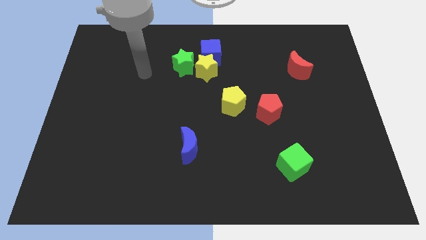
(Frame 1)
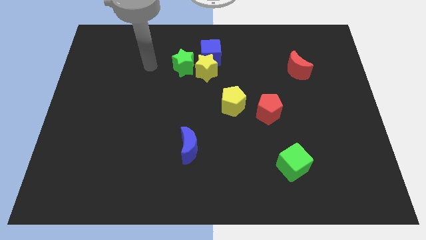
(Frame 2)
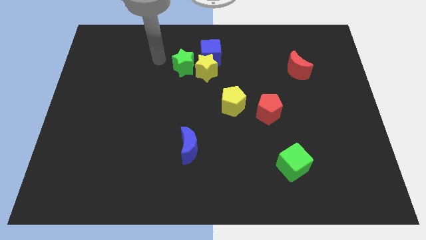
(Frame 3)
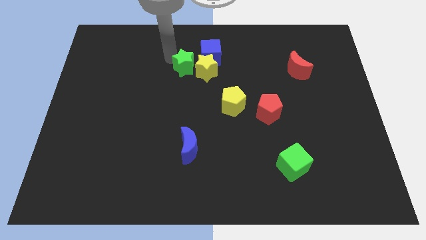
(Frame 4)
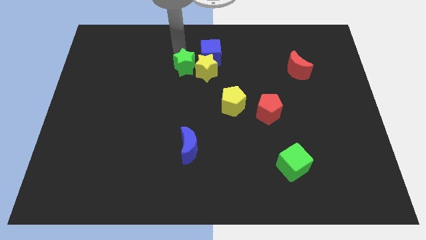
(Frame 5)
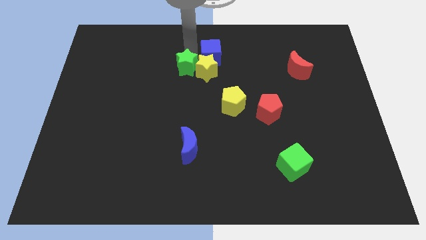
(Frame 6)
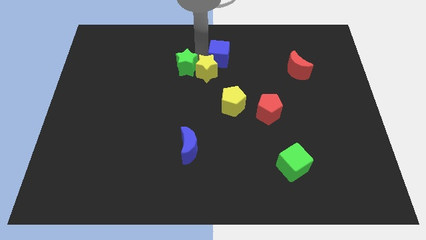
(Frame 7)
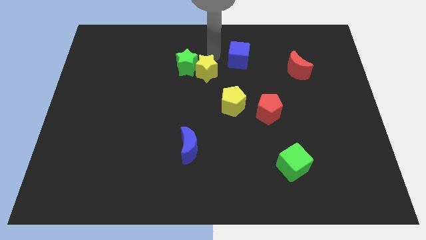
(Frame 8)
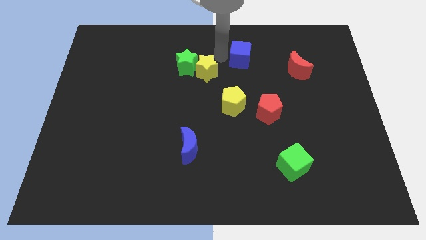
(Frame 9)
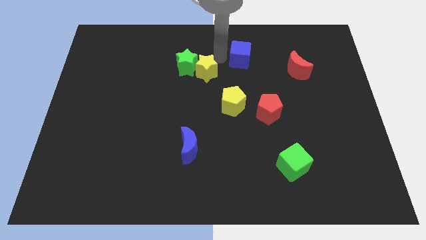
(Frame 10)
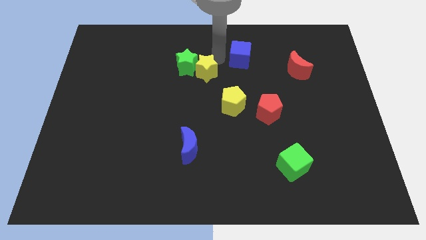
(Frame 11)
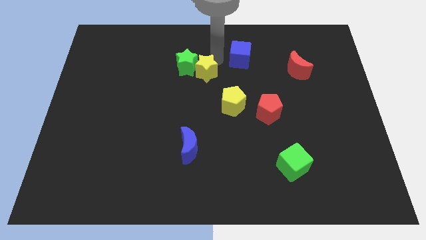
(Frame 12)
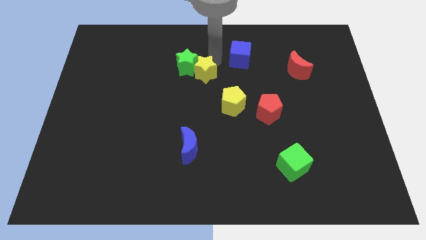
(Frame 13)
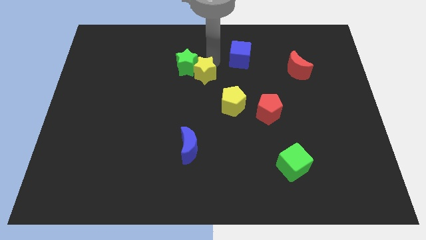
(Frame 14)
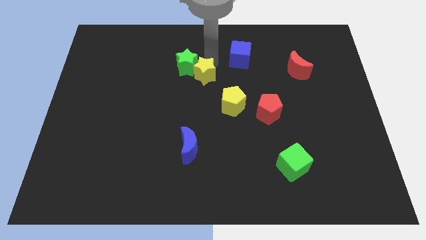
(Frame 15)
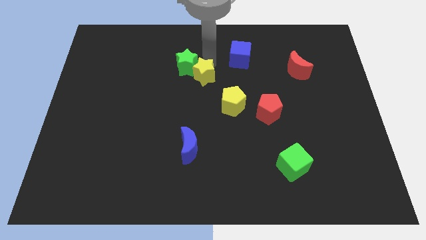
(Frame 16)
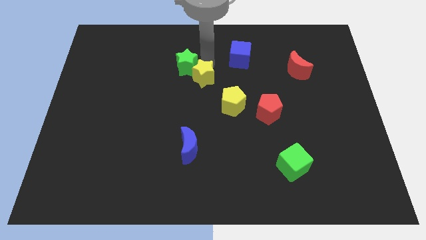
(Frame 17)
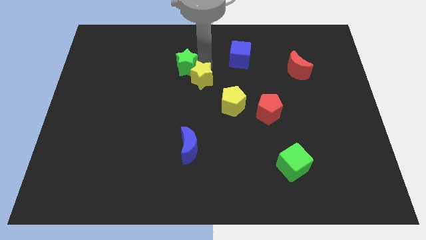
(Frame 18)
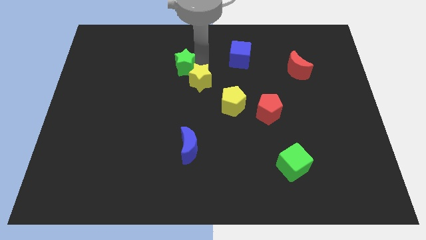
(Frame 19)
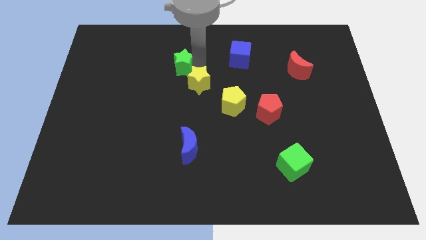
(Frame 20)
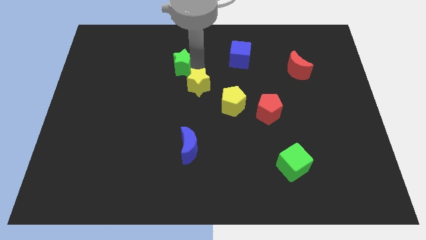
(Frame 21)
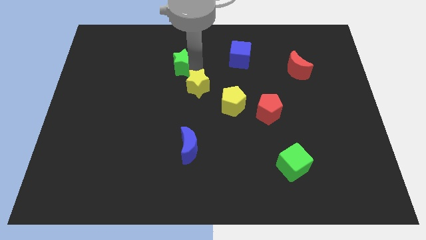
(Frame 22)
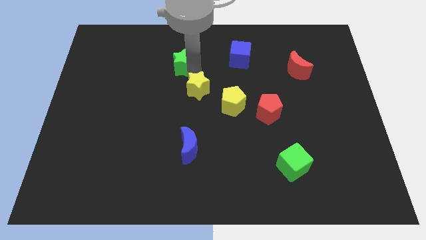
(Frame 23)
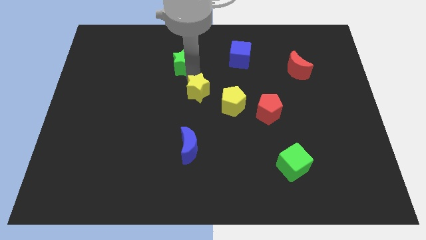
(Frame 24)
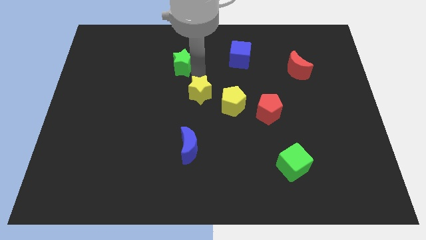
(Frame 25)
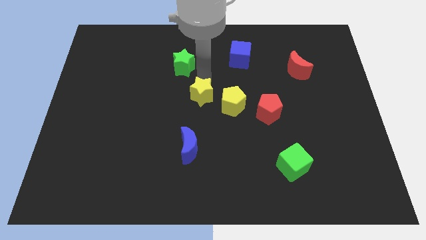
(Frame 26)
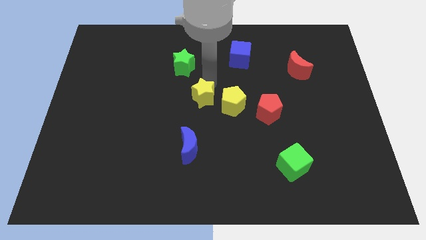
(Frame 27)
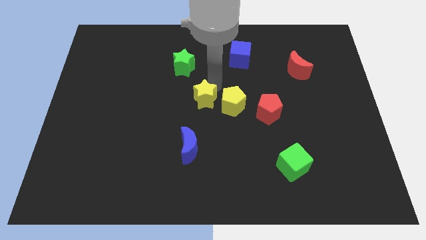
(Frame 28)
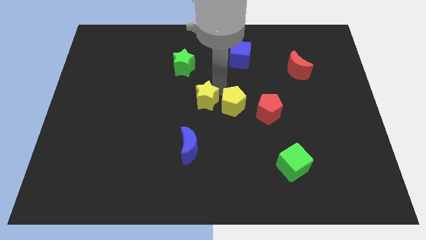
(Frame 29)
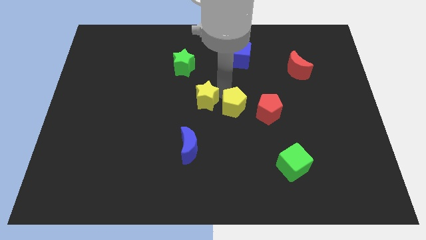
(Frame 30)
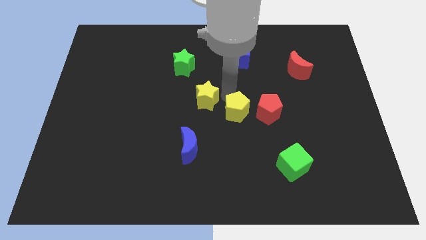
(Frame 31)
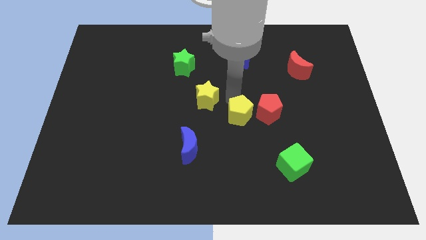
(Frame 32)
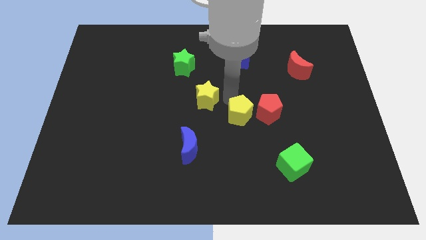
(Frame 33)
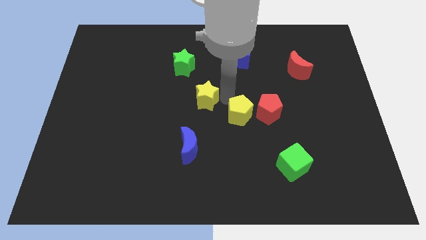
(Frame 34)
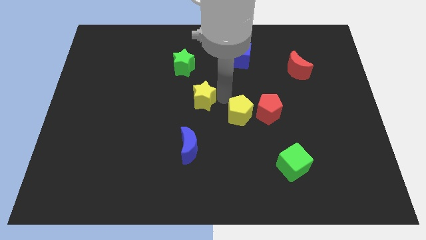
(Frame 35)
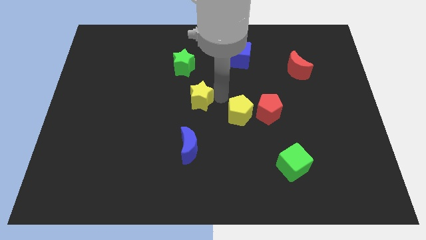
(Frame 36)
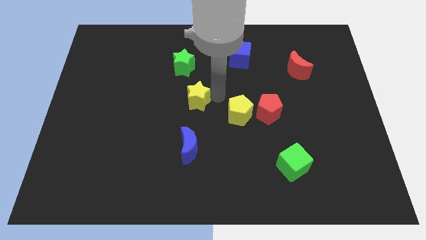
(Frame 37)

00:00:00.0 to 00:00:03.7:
slightly push the yellow star down and left diagonally

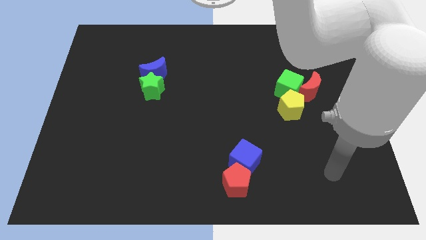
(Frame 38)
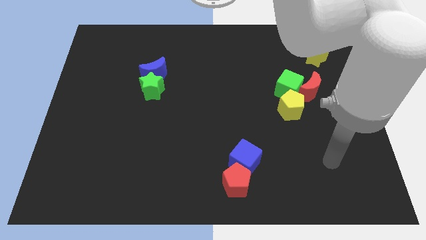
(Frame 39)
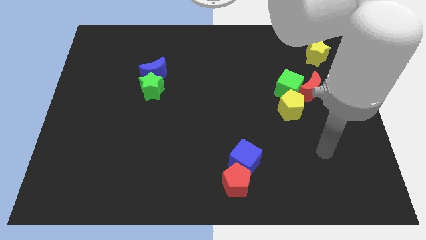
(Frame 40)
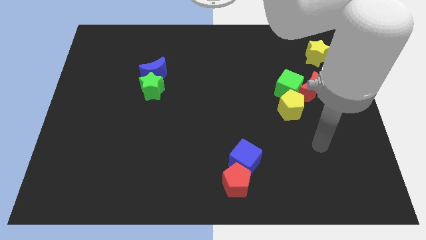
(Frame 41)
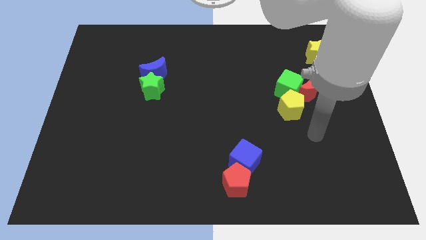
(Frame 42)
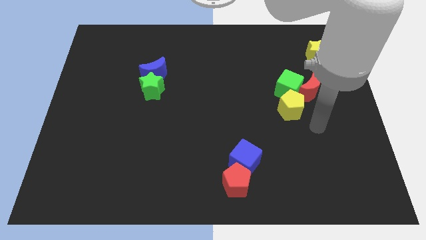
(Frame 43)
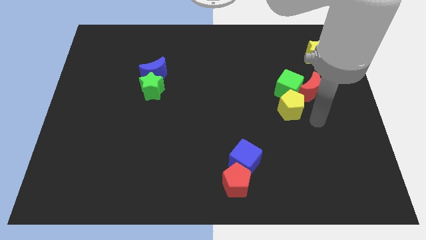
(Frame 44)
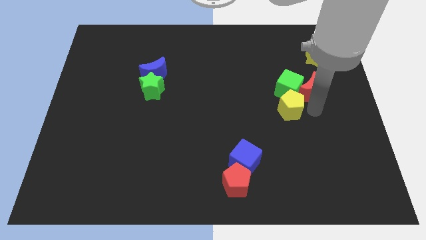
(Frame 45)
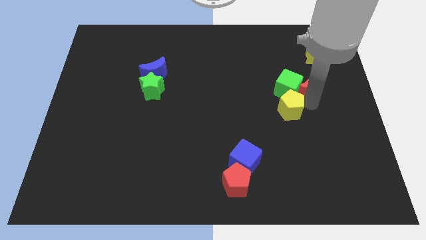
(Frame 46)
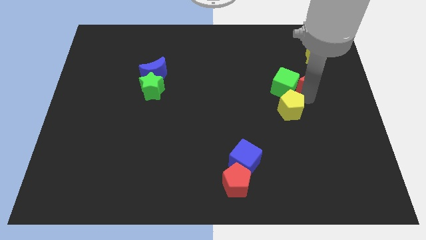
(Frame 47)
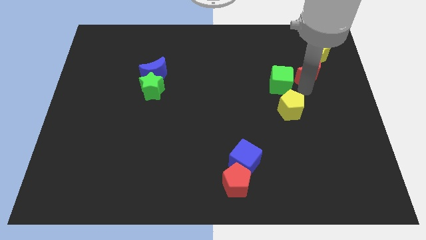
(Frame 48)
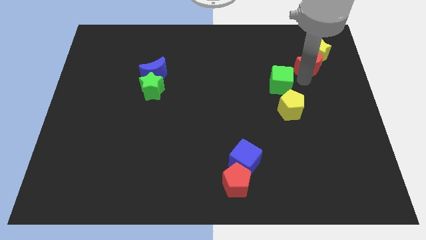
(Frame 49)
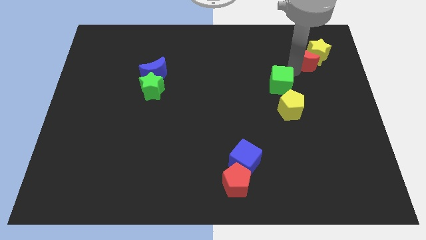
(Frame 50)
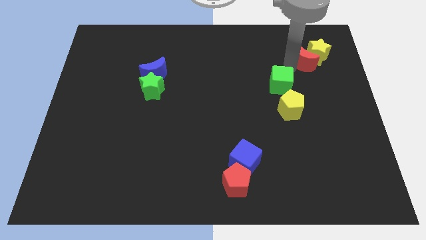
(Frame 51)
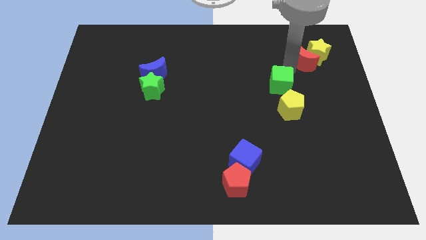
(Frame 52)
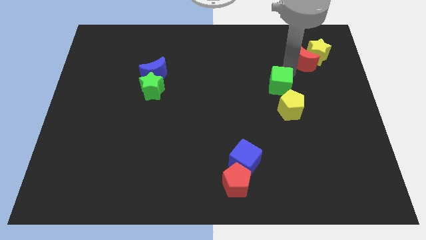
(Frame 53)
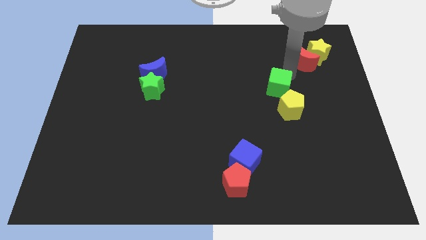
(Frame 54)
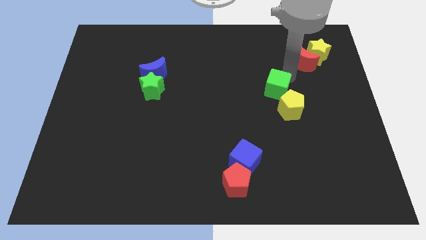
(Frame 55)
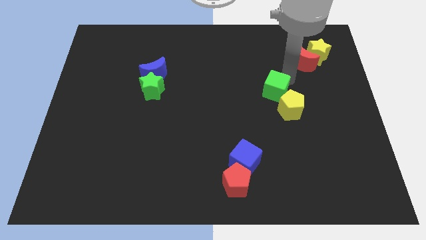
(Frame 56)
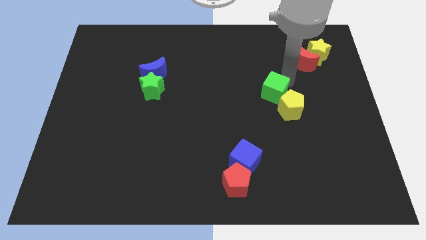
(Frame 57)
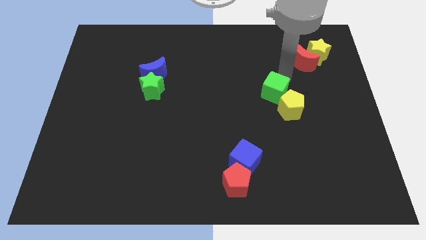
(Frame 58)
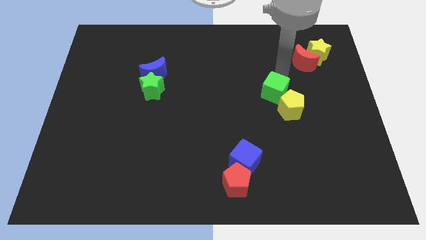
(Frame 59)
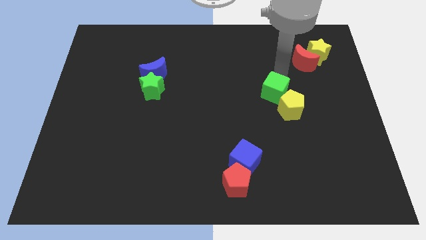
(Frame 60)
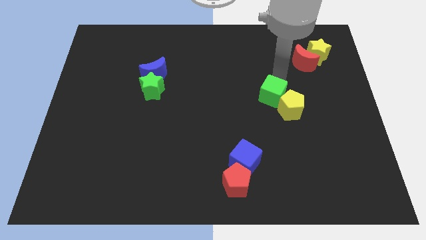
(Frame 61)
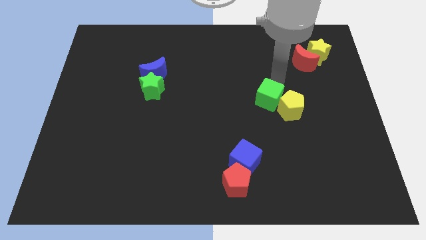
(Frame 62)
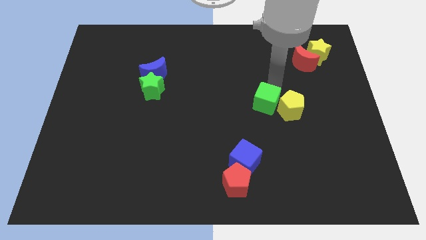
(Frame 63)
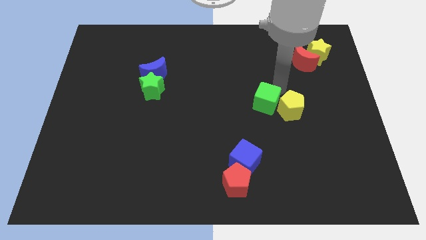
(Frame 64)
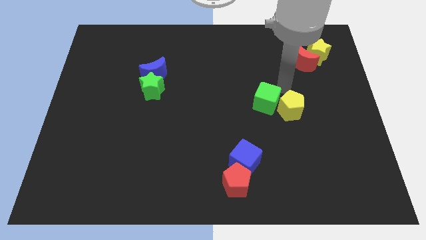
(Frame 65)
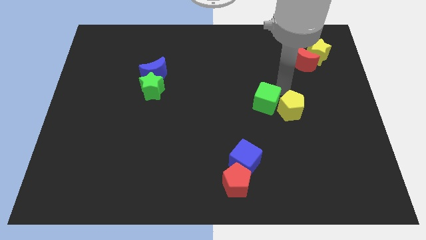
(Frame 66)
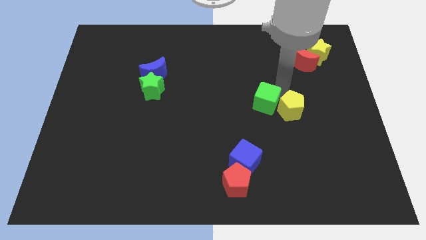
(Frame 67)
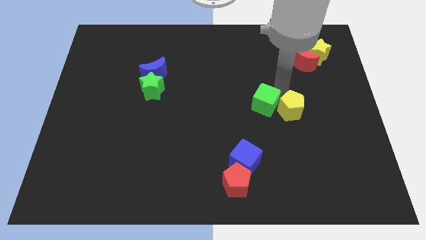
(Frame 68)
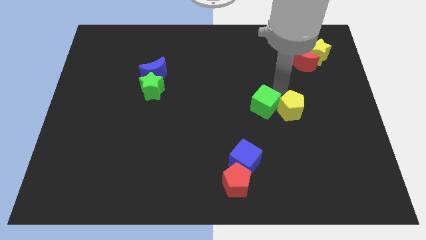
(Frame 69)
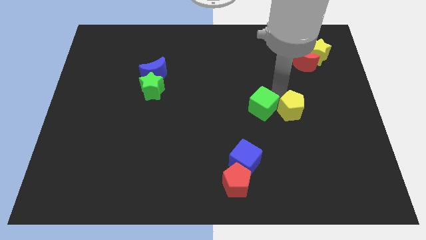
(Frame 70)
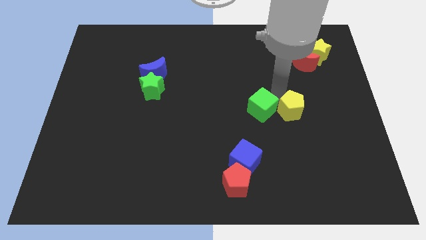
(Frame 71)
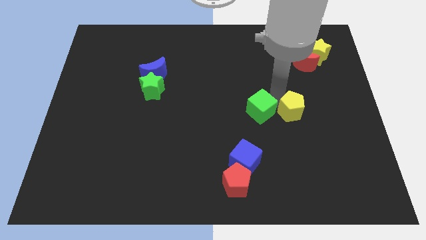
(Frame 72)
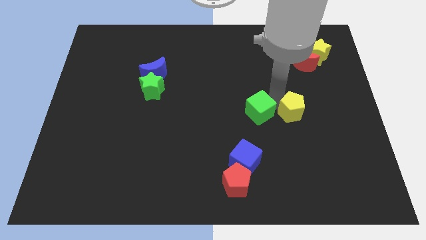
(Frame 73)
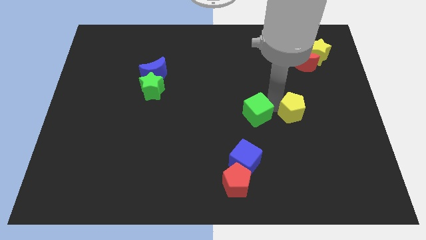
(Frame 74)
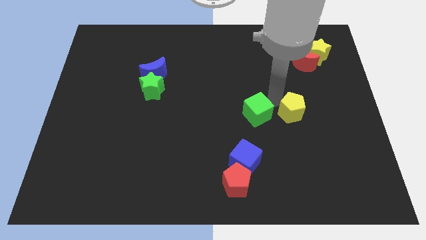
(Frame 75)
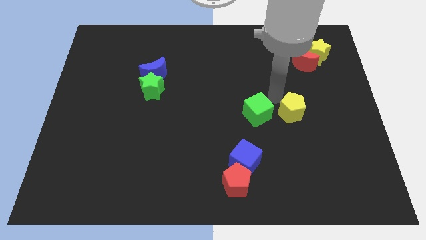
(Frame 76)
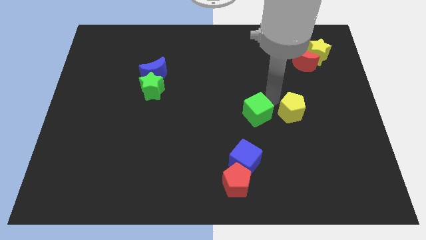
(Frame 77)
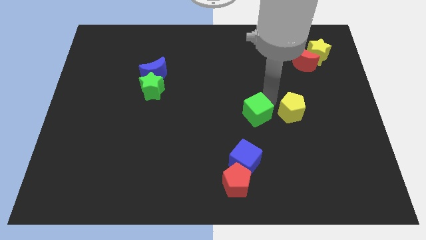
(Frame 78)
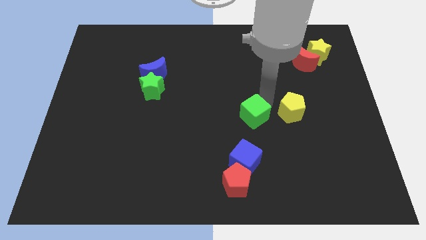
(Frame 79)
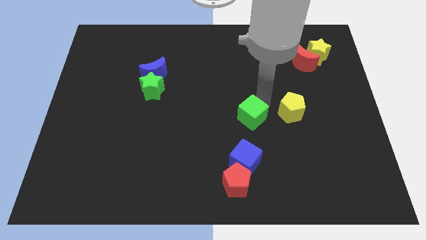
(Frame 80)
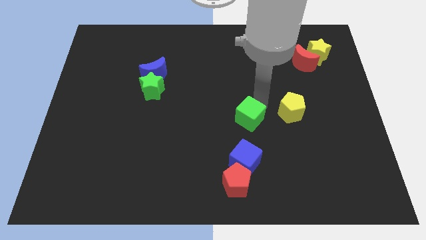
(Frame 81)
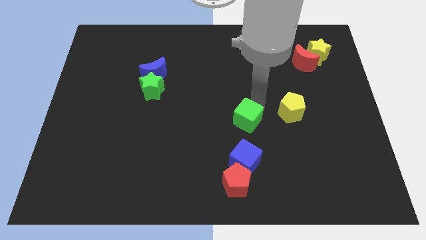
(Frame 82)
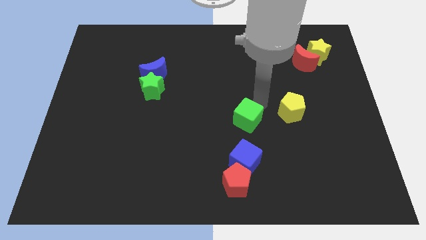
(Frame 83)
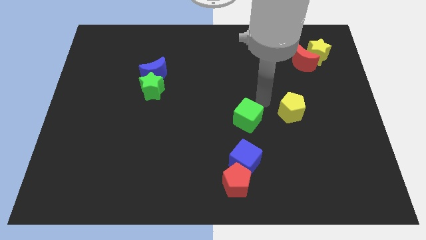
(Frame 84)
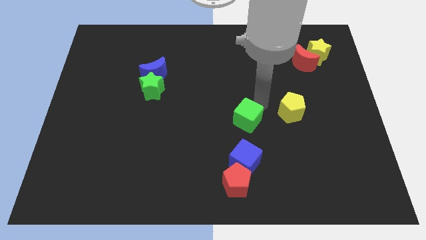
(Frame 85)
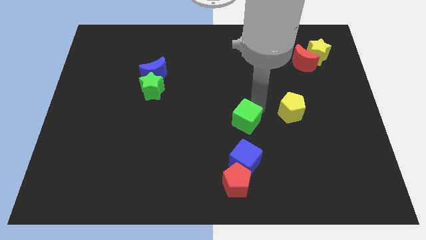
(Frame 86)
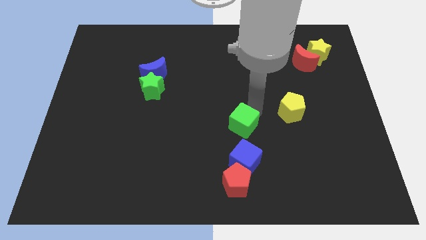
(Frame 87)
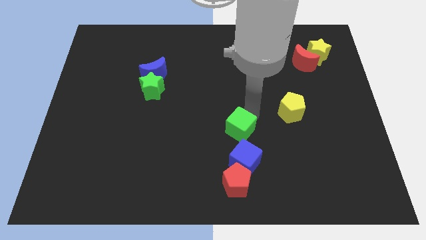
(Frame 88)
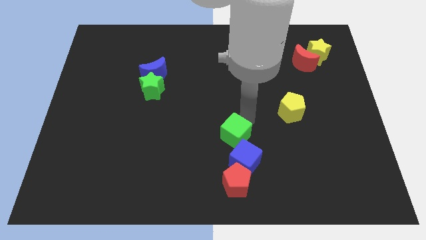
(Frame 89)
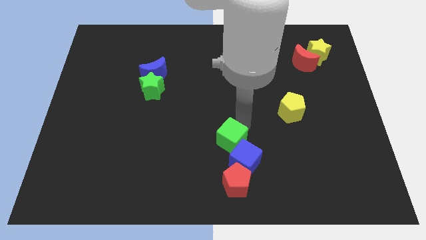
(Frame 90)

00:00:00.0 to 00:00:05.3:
push the green cube diagonally down and left
